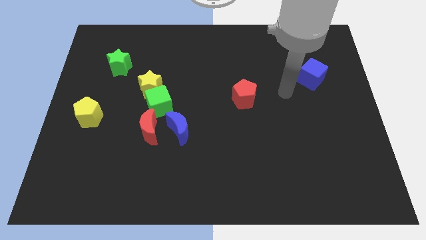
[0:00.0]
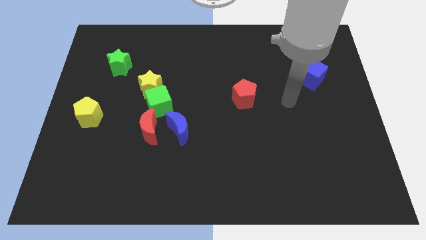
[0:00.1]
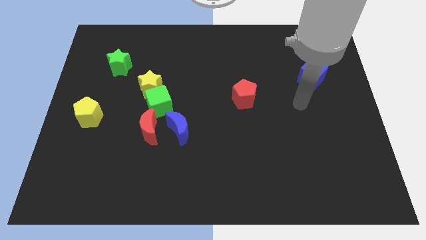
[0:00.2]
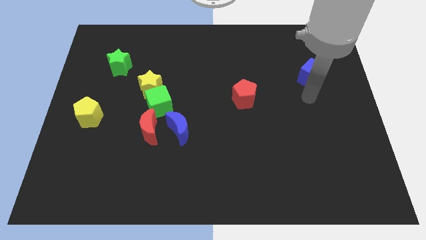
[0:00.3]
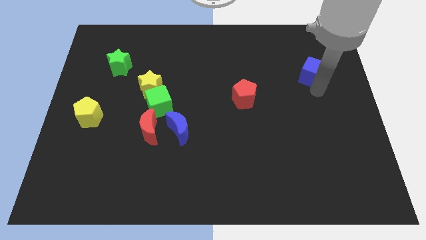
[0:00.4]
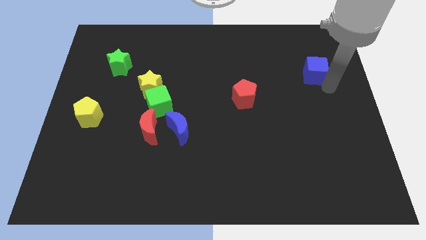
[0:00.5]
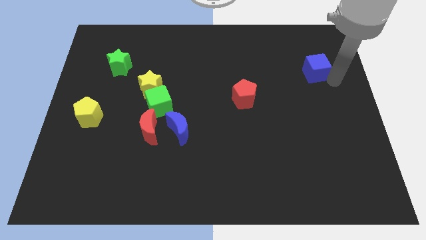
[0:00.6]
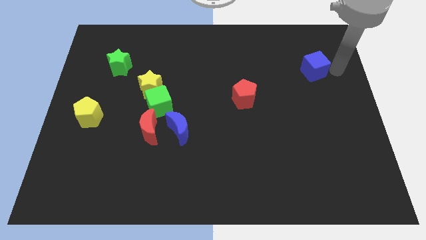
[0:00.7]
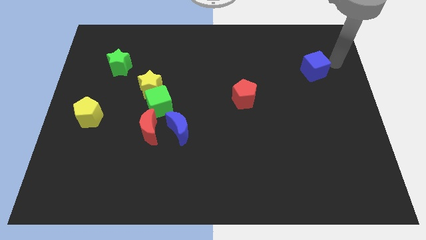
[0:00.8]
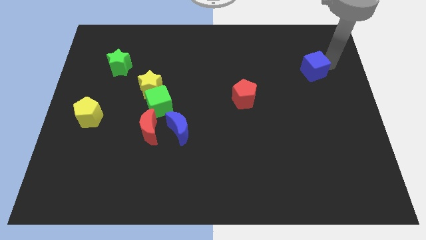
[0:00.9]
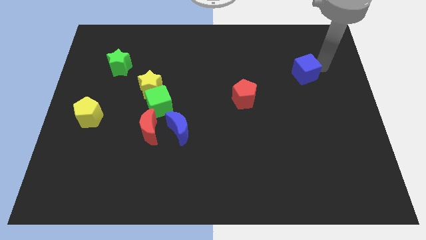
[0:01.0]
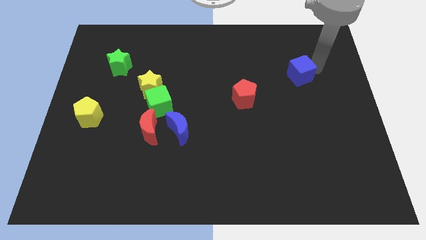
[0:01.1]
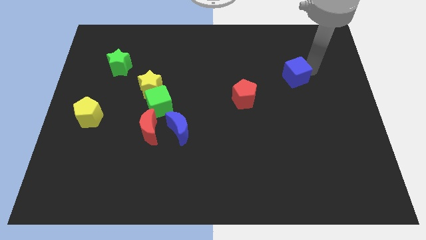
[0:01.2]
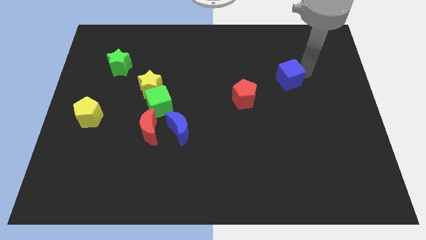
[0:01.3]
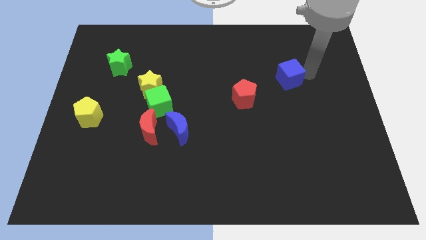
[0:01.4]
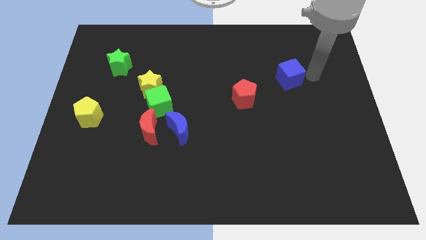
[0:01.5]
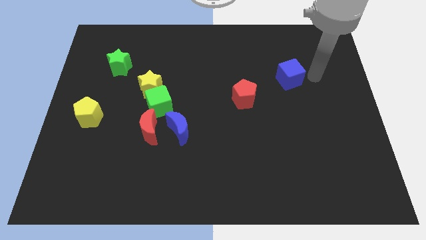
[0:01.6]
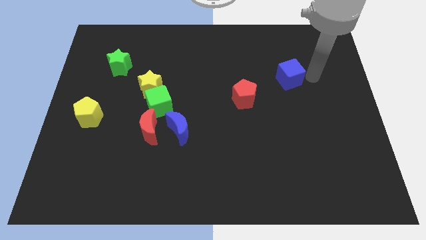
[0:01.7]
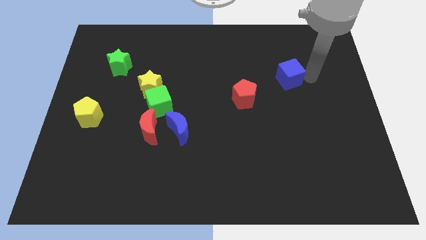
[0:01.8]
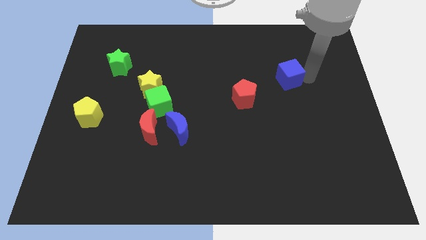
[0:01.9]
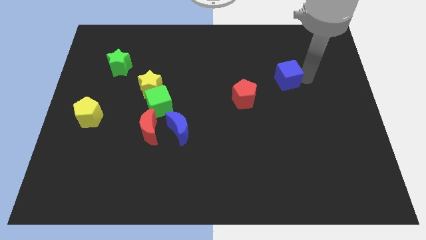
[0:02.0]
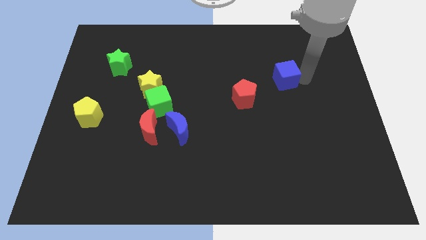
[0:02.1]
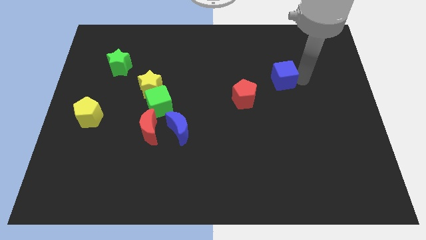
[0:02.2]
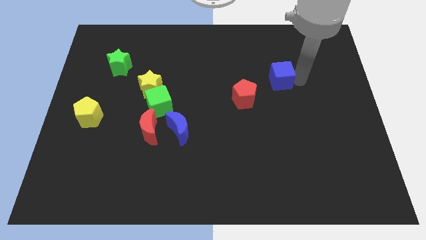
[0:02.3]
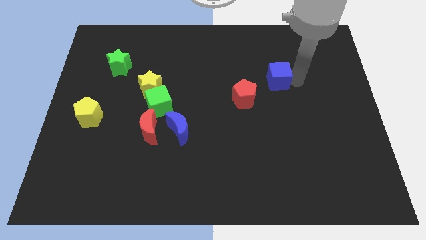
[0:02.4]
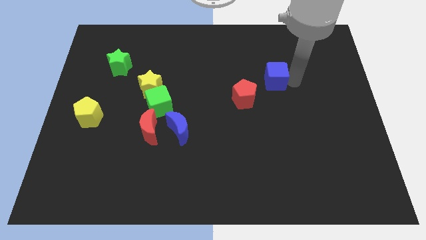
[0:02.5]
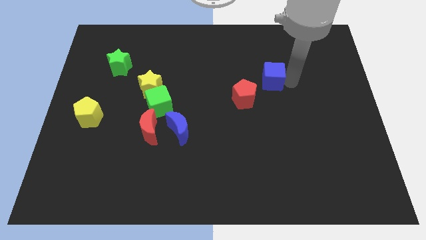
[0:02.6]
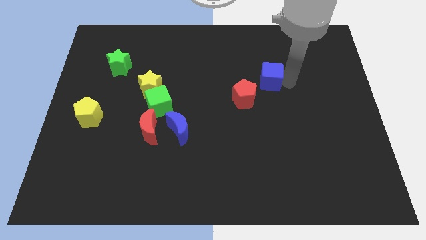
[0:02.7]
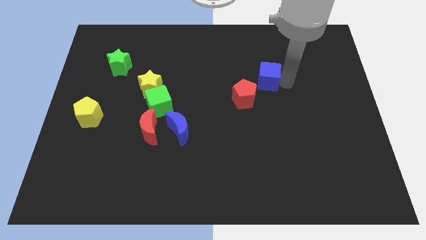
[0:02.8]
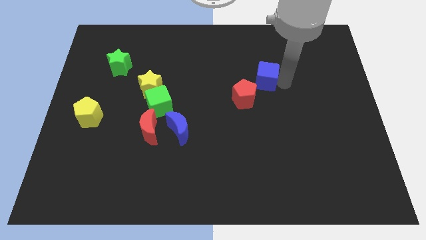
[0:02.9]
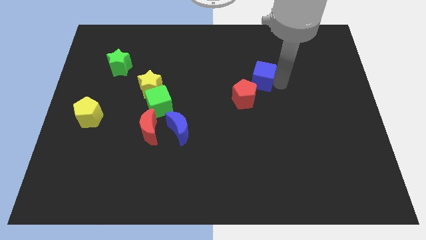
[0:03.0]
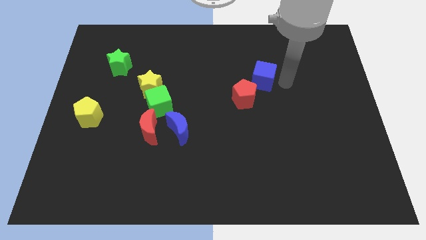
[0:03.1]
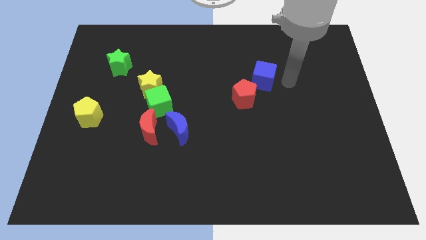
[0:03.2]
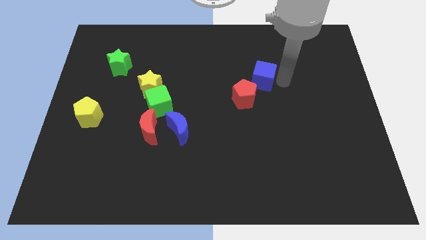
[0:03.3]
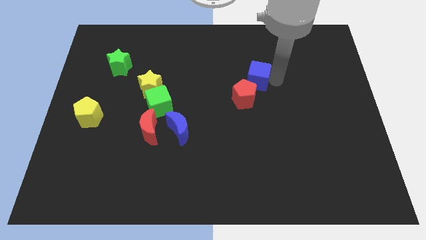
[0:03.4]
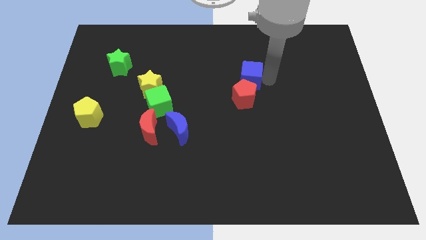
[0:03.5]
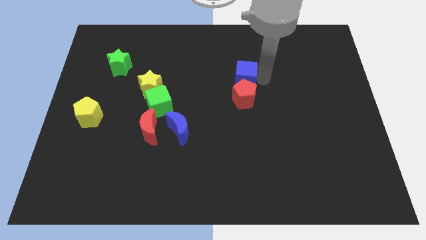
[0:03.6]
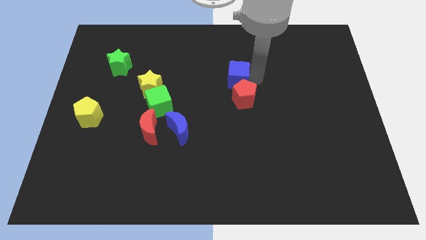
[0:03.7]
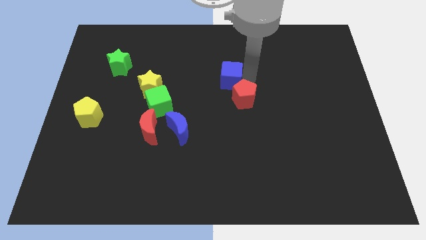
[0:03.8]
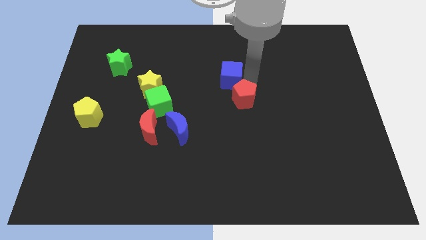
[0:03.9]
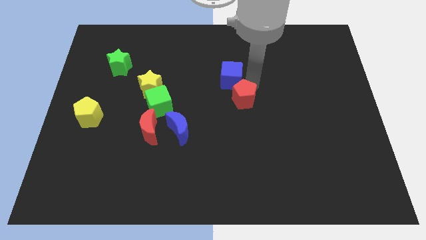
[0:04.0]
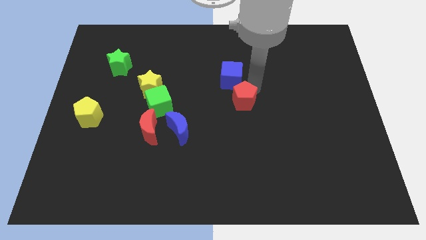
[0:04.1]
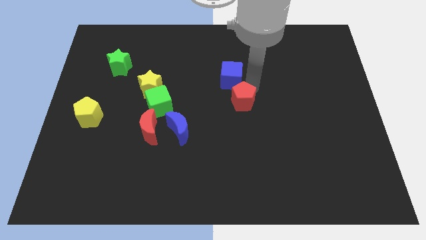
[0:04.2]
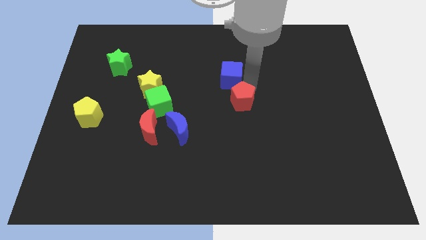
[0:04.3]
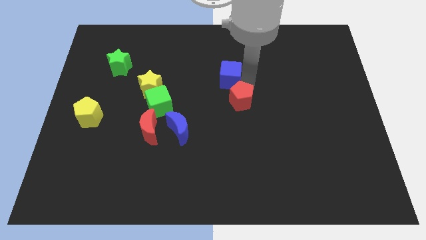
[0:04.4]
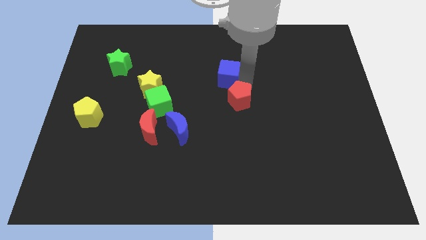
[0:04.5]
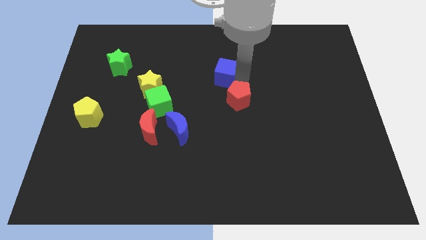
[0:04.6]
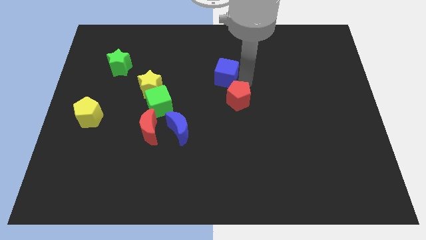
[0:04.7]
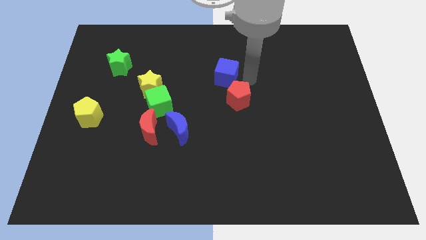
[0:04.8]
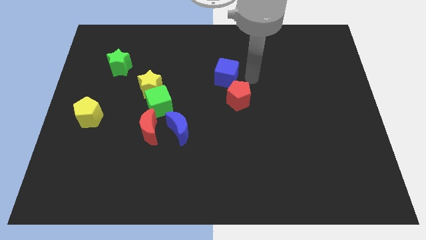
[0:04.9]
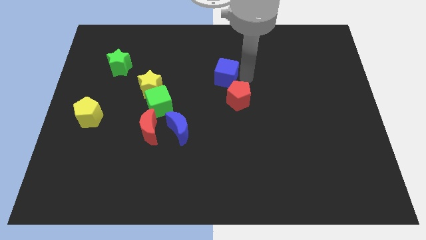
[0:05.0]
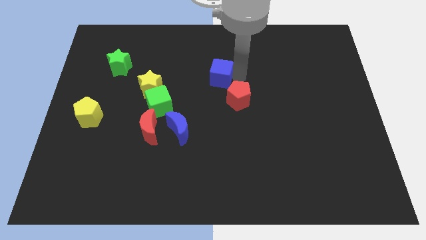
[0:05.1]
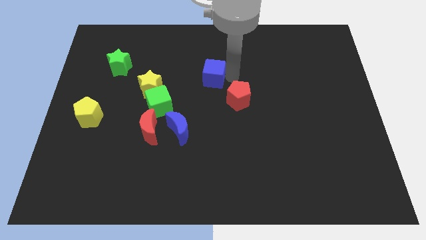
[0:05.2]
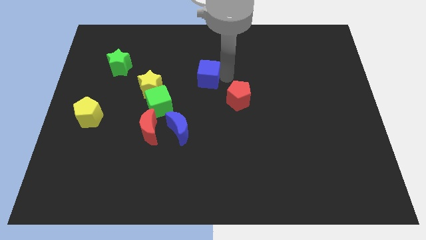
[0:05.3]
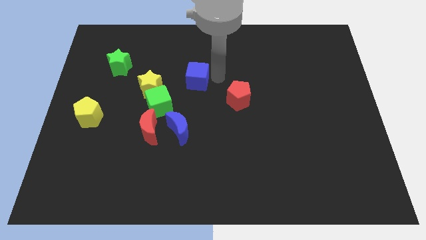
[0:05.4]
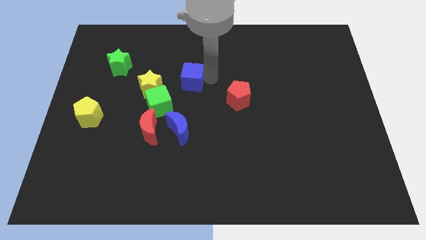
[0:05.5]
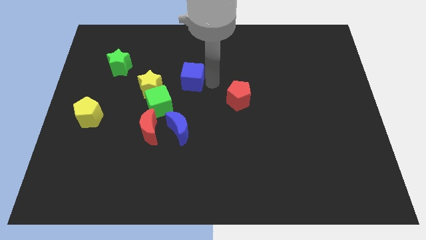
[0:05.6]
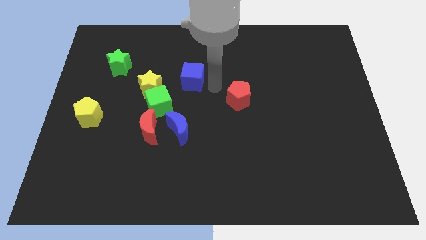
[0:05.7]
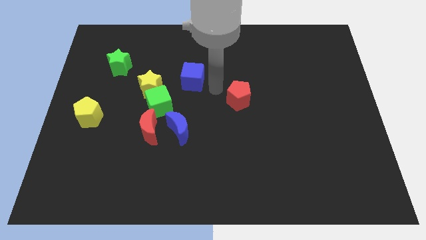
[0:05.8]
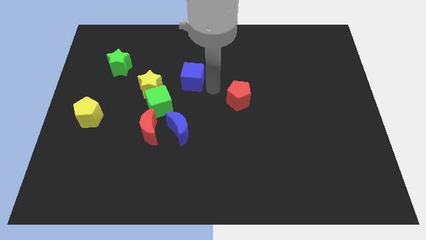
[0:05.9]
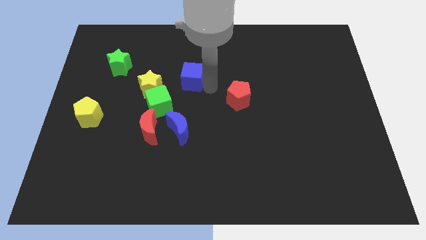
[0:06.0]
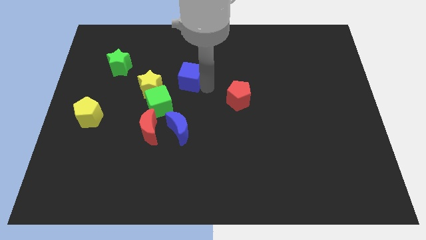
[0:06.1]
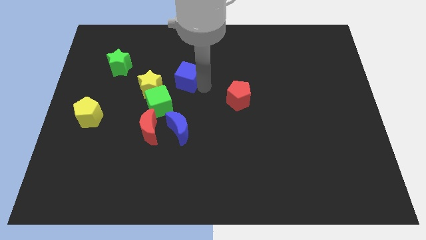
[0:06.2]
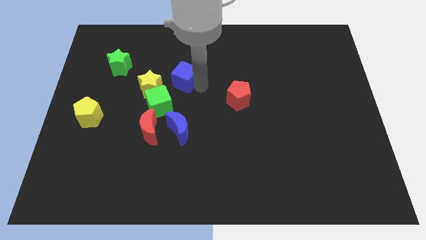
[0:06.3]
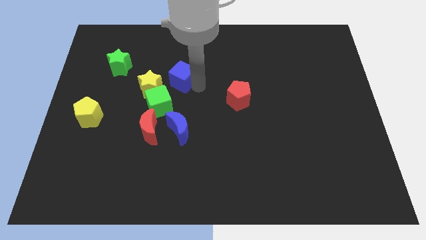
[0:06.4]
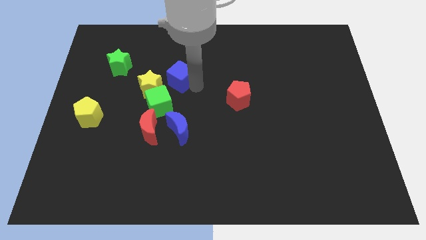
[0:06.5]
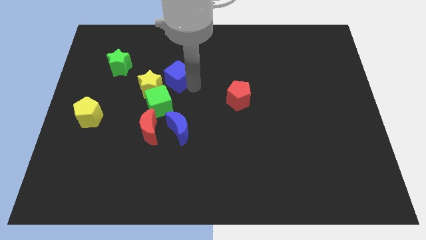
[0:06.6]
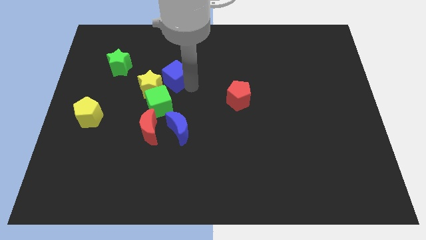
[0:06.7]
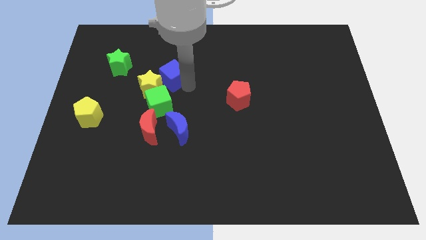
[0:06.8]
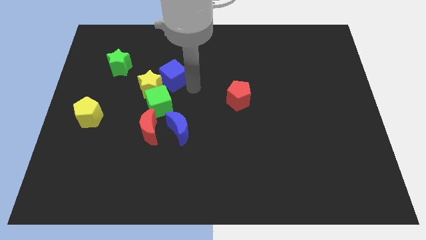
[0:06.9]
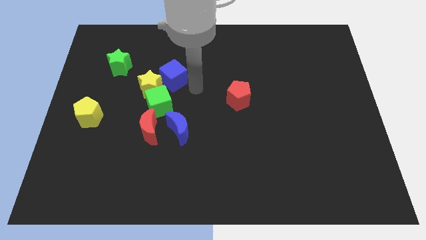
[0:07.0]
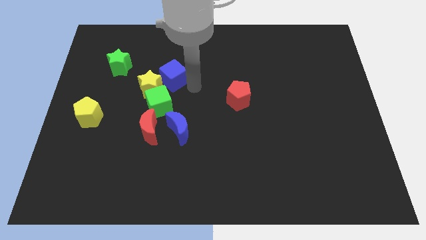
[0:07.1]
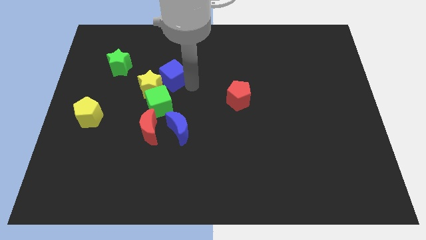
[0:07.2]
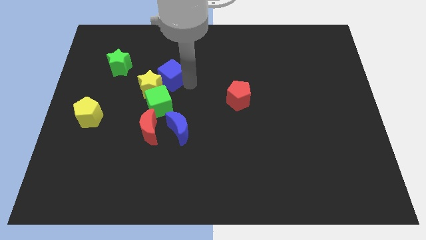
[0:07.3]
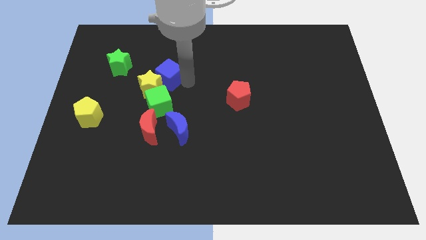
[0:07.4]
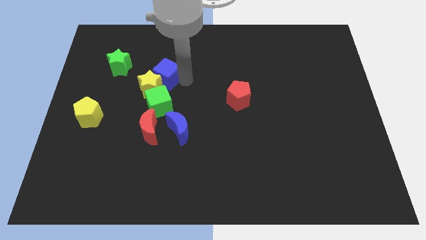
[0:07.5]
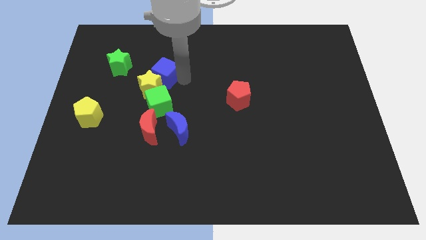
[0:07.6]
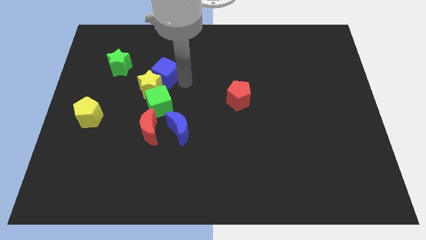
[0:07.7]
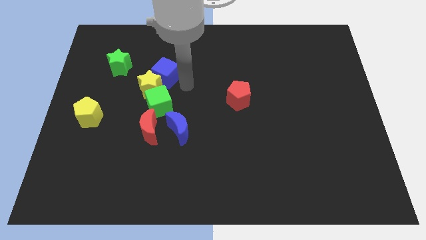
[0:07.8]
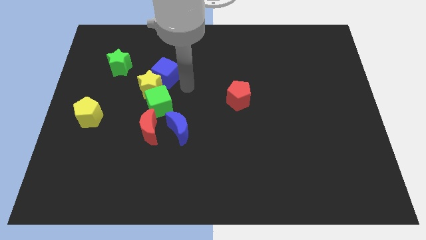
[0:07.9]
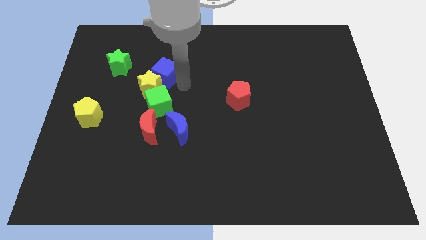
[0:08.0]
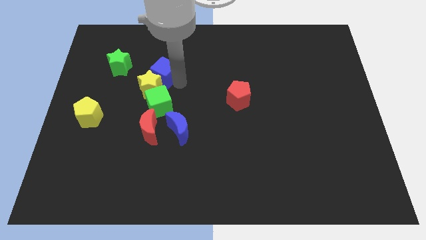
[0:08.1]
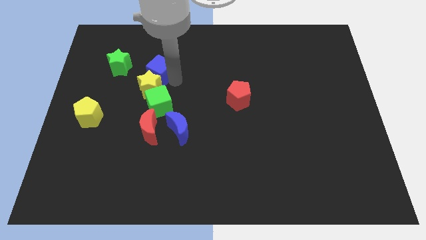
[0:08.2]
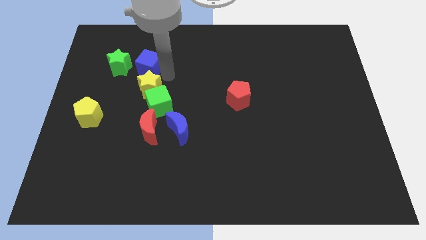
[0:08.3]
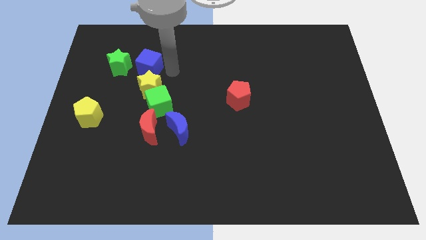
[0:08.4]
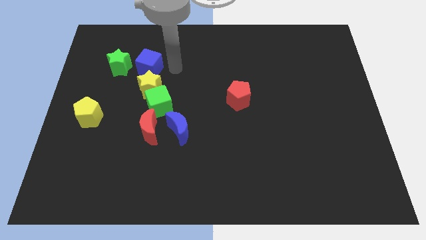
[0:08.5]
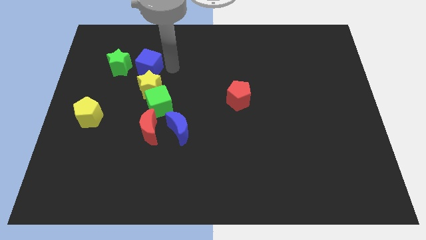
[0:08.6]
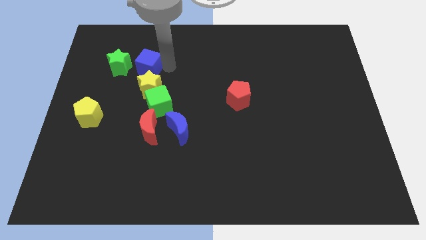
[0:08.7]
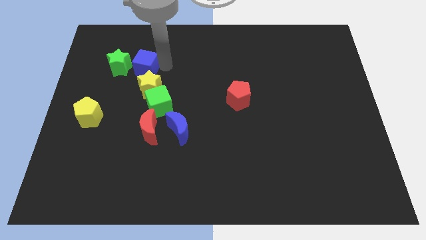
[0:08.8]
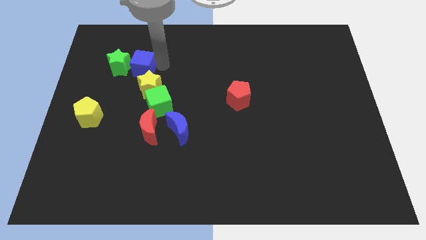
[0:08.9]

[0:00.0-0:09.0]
slide the blue cube to the green star
